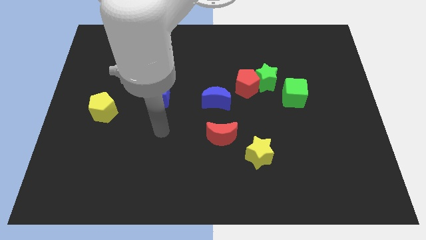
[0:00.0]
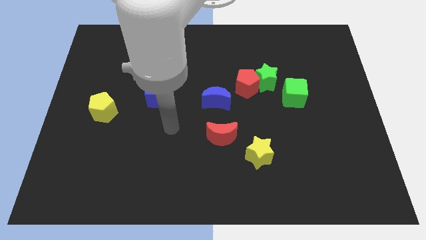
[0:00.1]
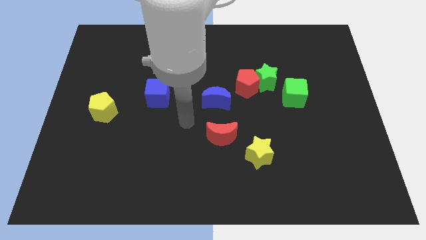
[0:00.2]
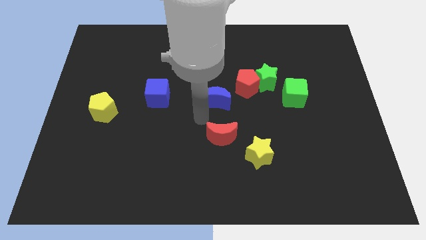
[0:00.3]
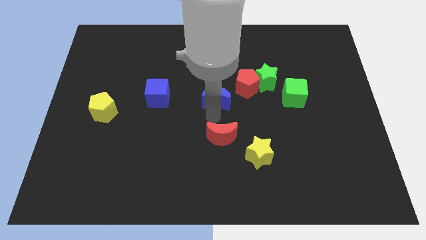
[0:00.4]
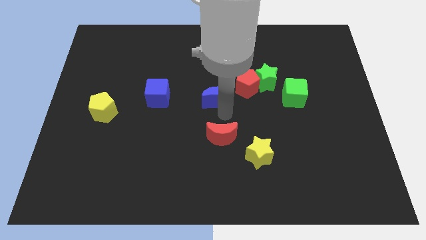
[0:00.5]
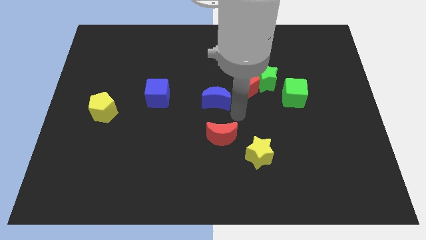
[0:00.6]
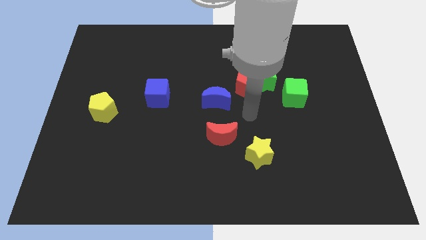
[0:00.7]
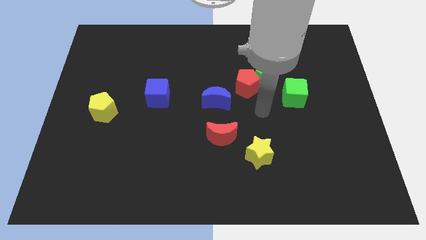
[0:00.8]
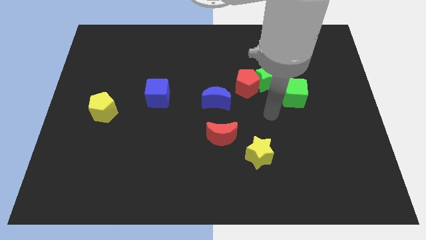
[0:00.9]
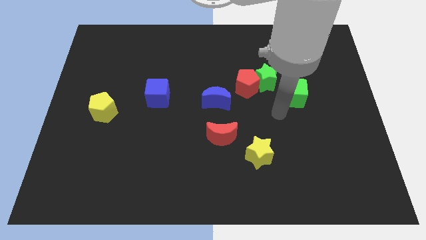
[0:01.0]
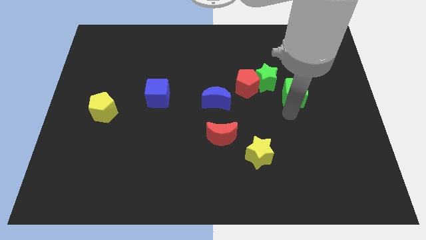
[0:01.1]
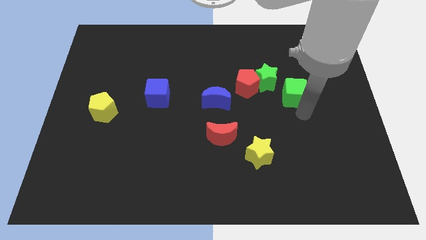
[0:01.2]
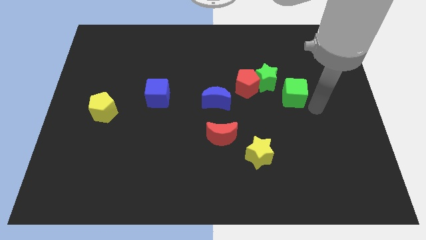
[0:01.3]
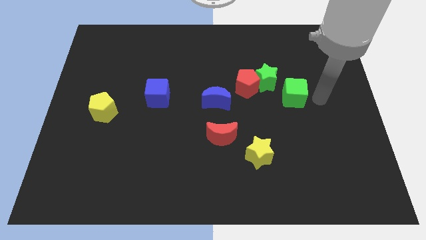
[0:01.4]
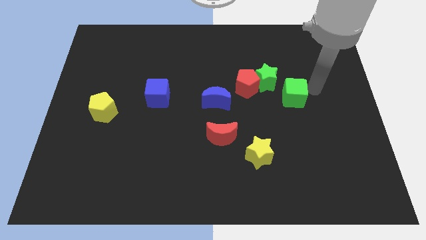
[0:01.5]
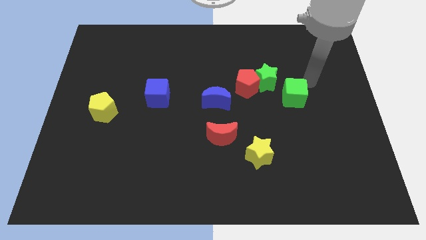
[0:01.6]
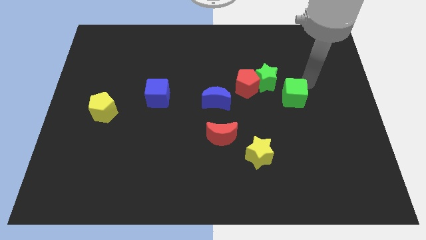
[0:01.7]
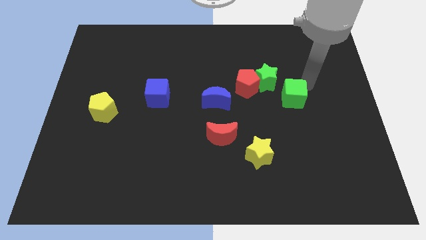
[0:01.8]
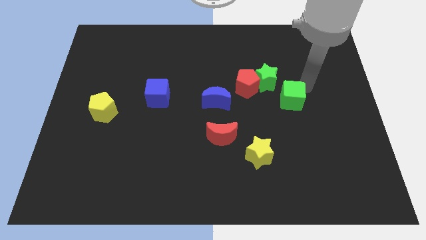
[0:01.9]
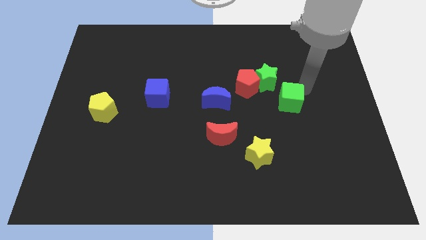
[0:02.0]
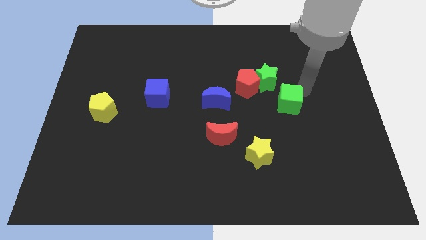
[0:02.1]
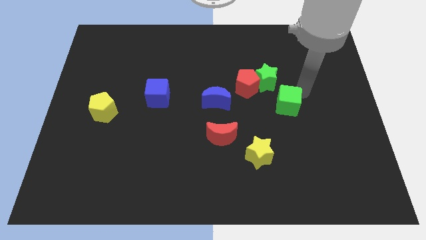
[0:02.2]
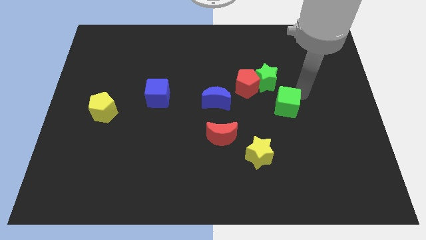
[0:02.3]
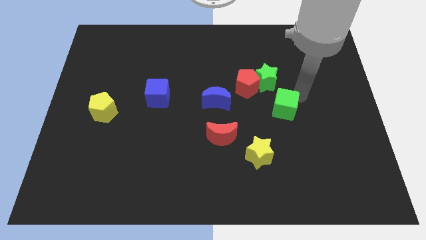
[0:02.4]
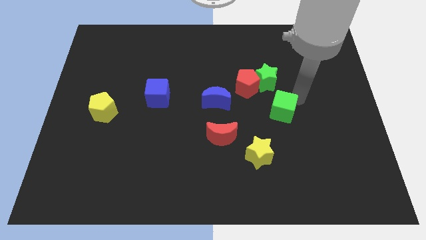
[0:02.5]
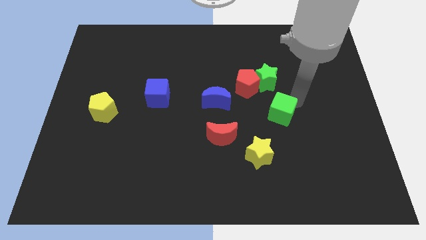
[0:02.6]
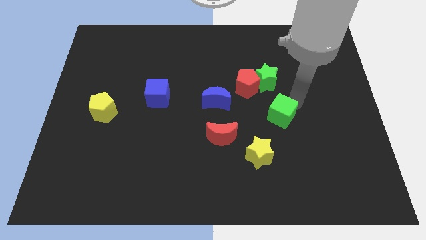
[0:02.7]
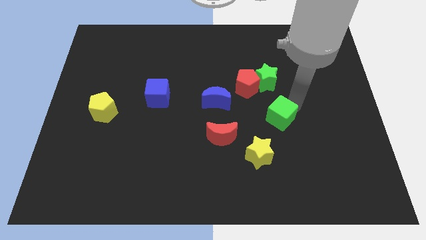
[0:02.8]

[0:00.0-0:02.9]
slide the green cube downwards and to the left diagonally a bit

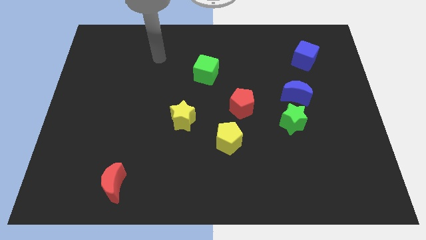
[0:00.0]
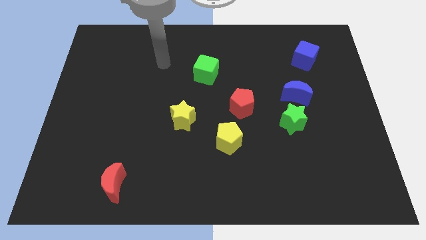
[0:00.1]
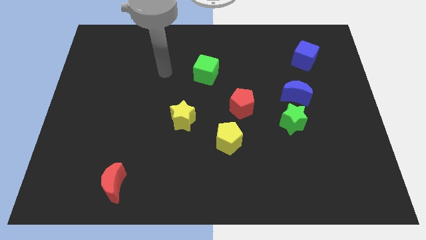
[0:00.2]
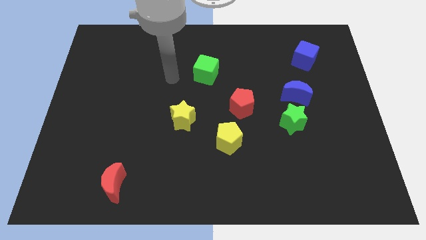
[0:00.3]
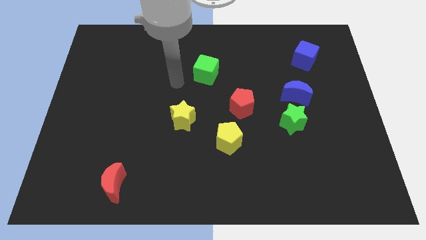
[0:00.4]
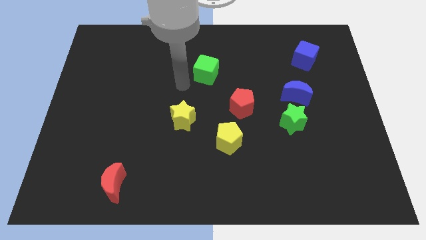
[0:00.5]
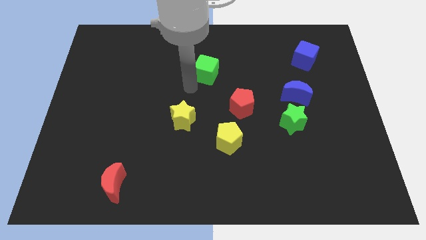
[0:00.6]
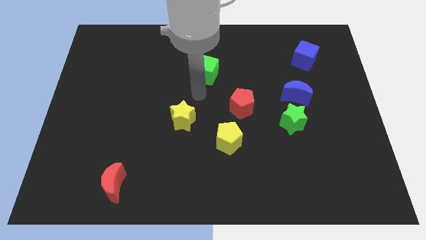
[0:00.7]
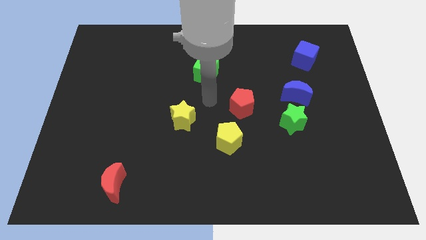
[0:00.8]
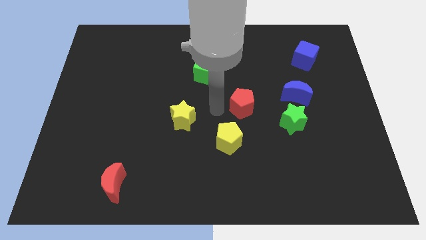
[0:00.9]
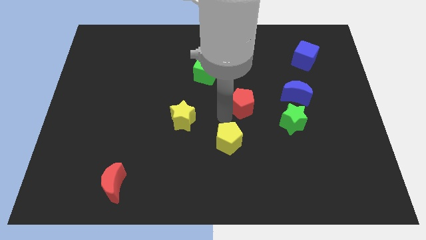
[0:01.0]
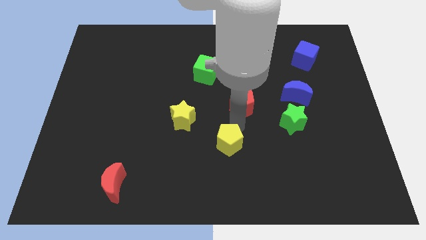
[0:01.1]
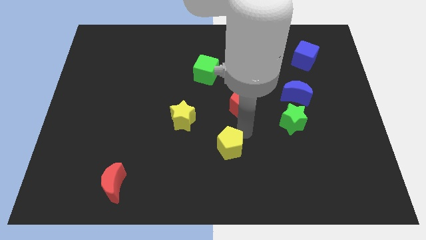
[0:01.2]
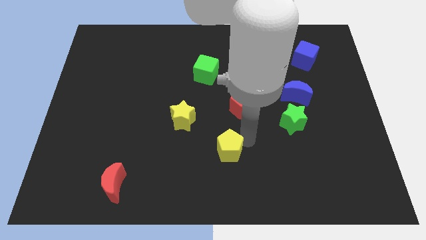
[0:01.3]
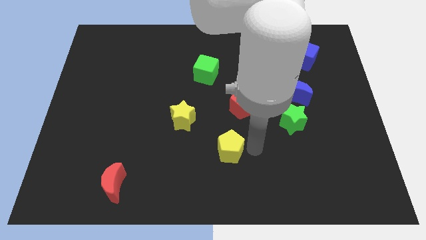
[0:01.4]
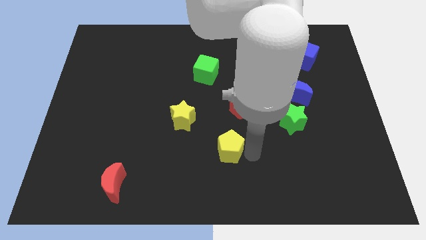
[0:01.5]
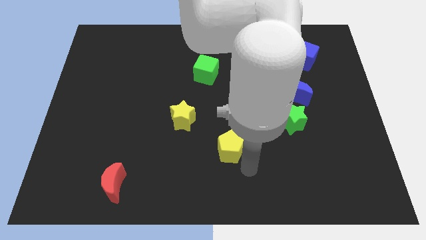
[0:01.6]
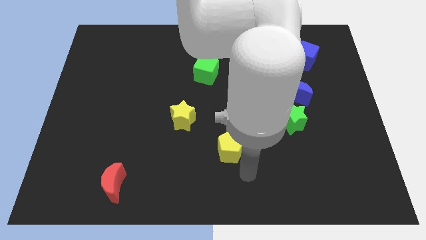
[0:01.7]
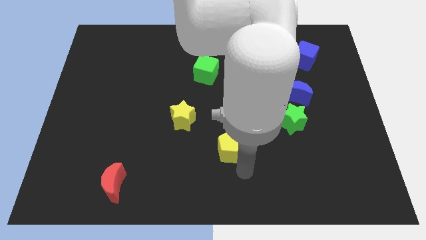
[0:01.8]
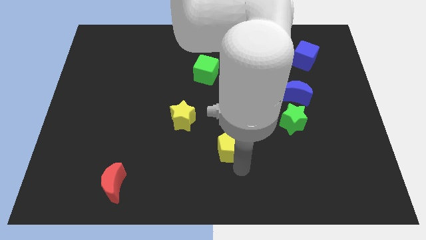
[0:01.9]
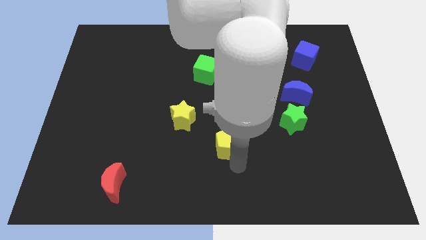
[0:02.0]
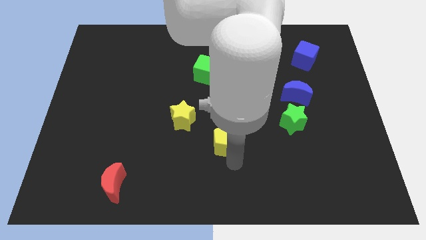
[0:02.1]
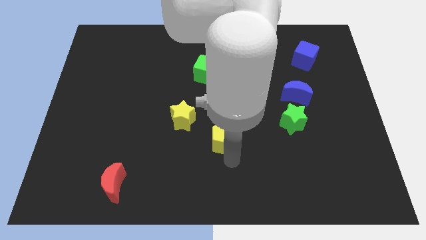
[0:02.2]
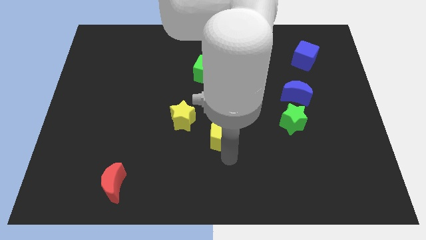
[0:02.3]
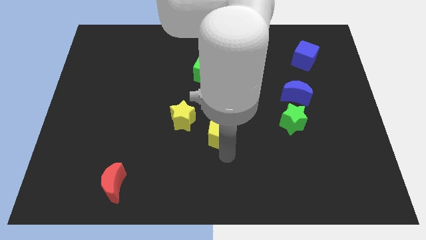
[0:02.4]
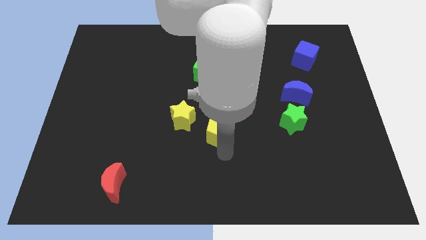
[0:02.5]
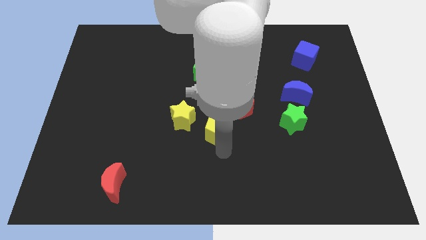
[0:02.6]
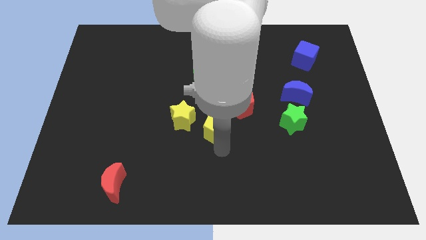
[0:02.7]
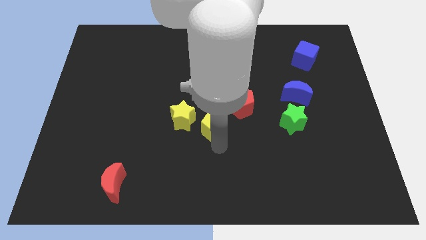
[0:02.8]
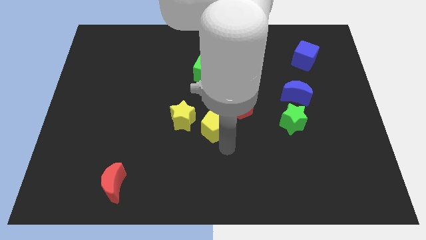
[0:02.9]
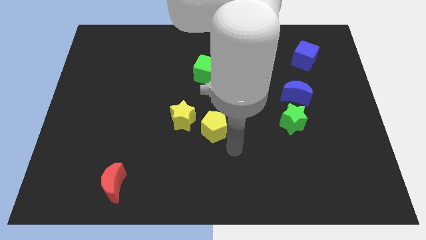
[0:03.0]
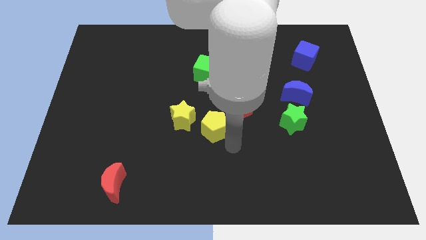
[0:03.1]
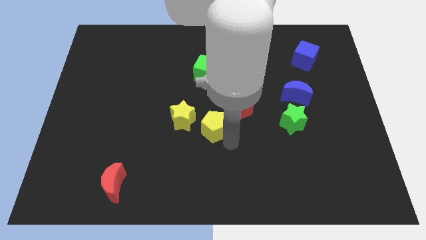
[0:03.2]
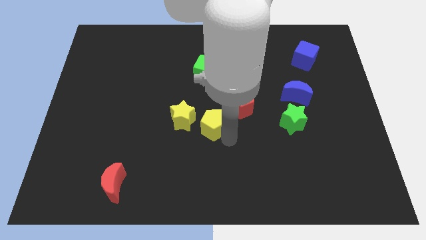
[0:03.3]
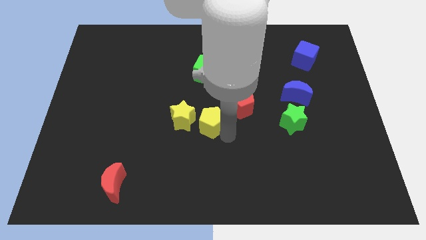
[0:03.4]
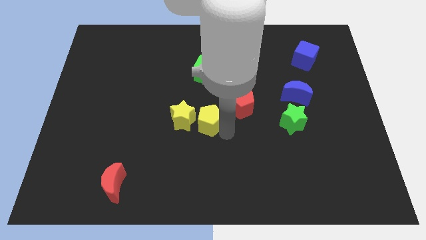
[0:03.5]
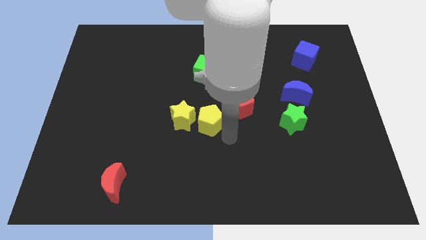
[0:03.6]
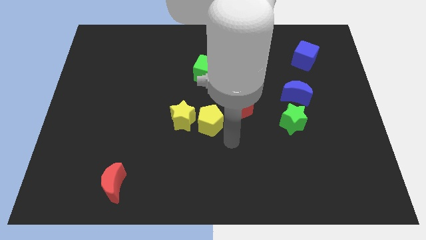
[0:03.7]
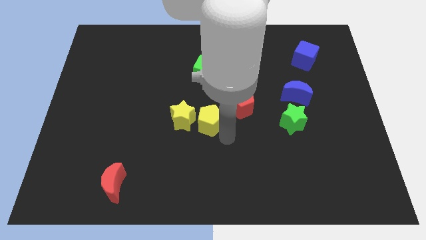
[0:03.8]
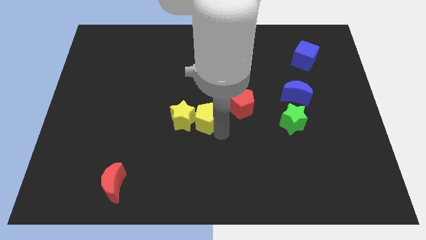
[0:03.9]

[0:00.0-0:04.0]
move the yellow pentagon upwards and left diagonally a little bit

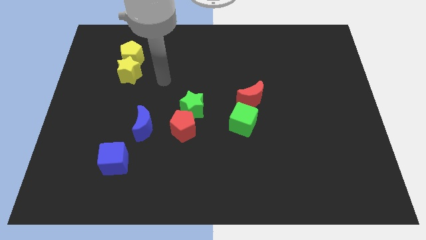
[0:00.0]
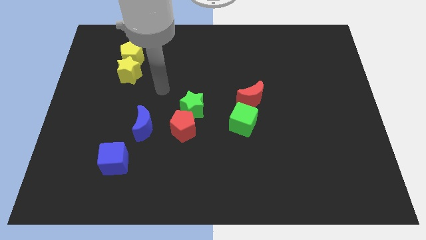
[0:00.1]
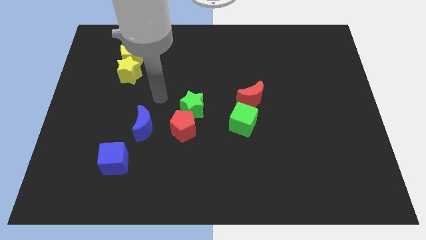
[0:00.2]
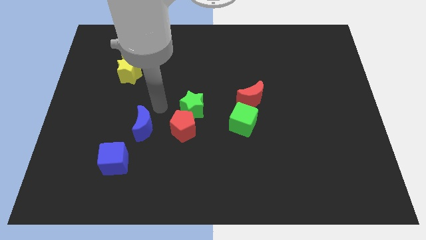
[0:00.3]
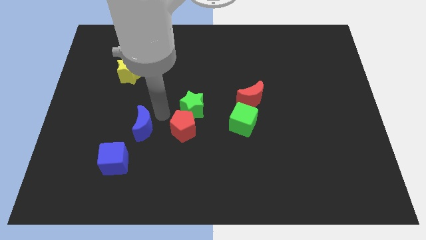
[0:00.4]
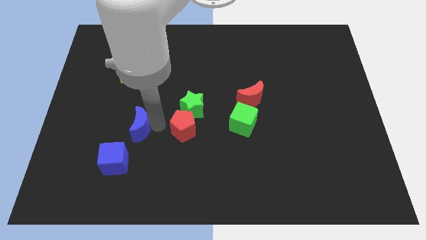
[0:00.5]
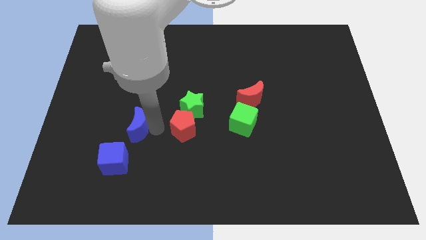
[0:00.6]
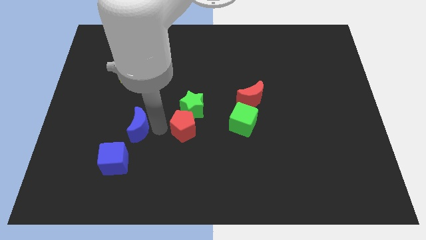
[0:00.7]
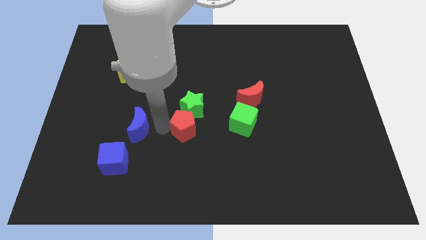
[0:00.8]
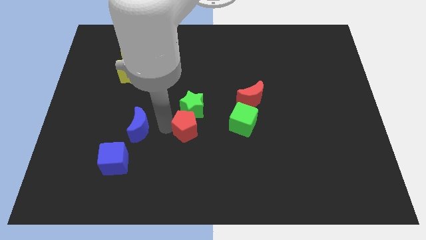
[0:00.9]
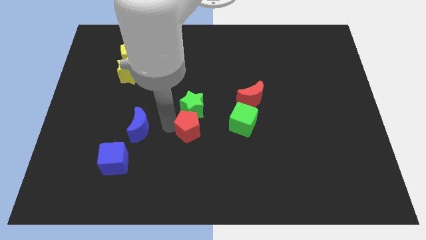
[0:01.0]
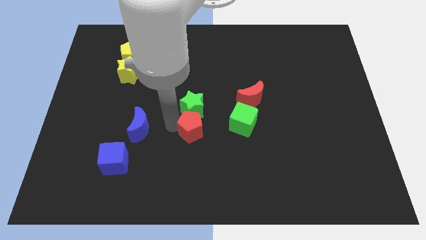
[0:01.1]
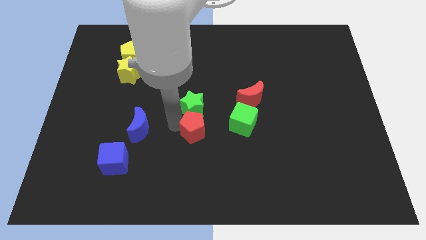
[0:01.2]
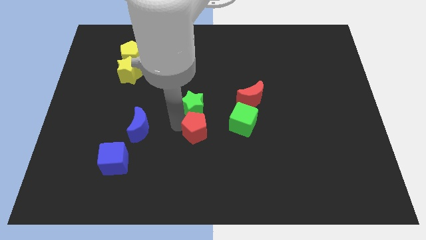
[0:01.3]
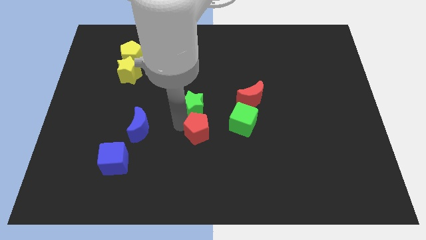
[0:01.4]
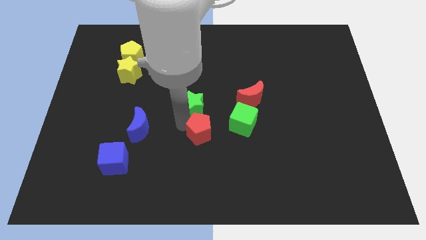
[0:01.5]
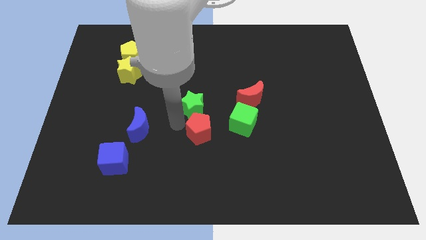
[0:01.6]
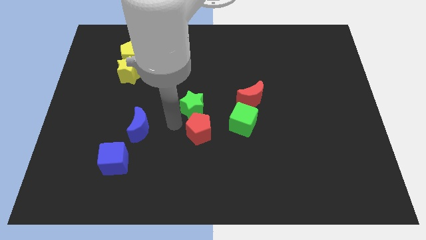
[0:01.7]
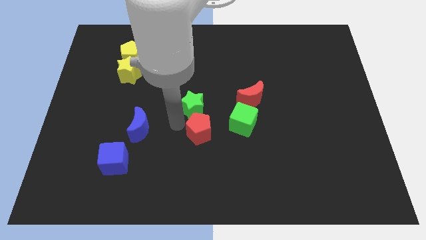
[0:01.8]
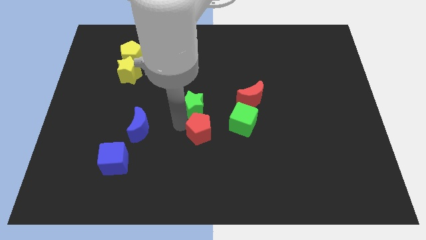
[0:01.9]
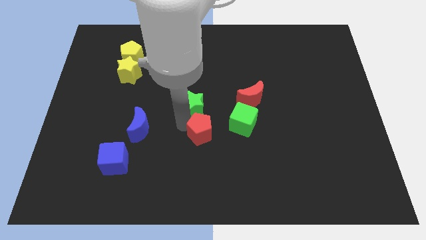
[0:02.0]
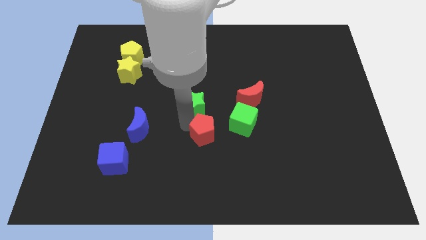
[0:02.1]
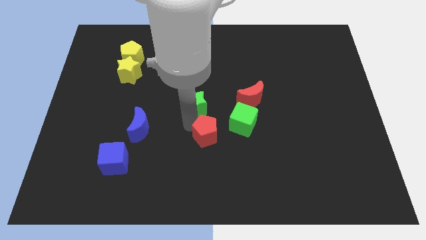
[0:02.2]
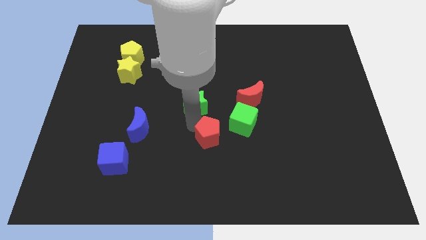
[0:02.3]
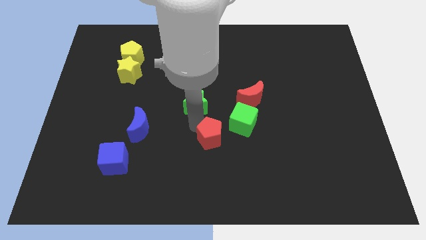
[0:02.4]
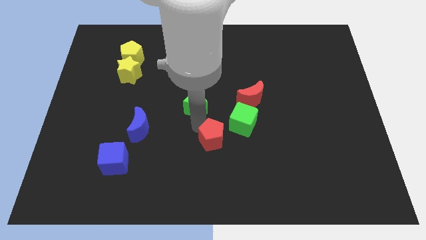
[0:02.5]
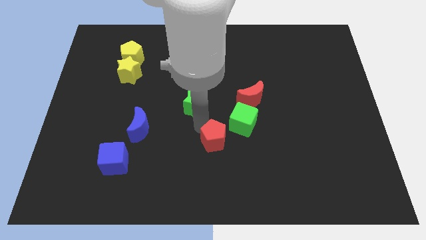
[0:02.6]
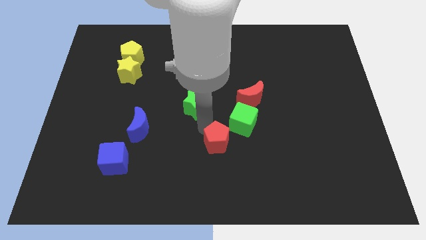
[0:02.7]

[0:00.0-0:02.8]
slide the red pentagon to the right somewhat
